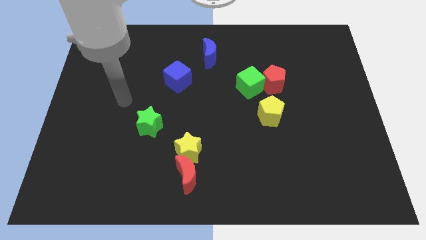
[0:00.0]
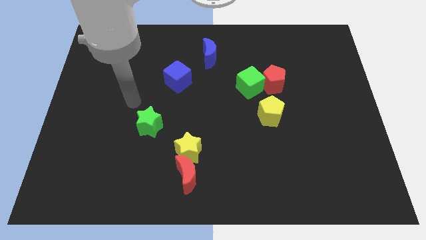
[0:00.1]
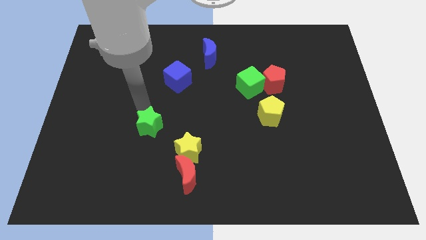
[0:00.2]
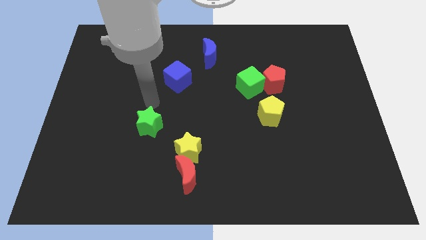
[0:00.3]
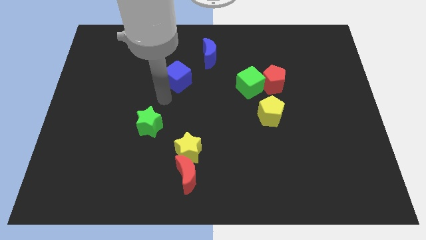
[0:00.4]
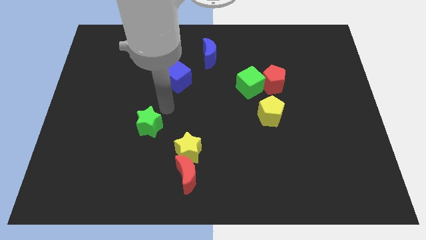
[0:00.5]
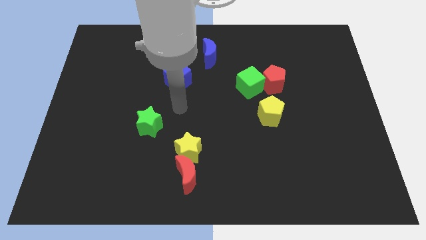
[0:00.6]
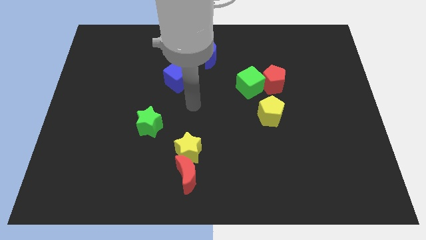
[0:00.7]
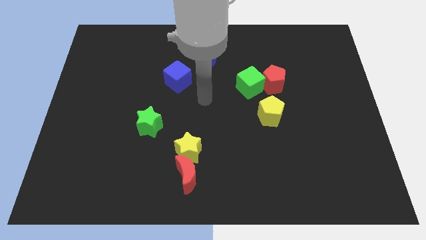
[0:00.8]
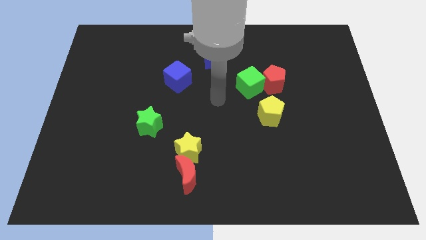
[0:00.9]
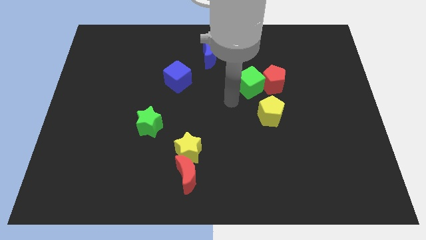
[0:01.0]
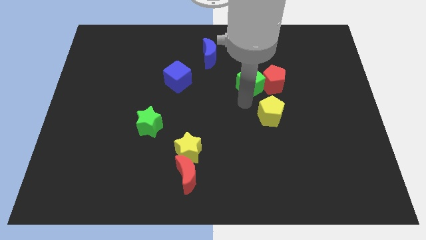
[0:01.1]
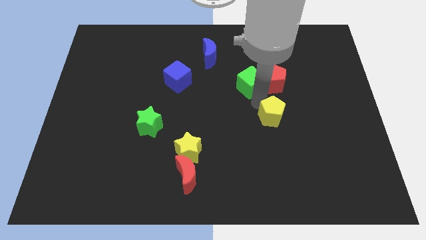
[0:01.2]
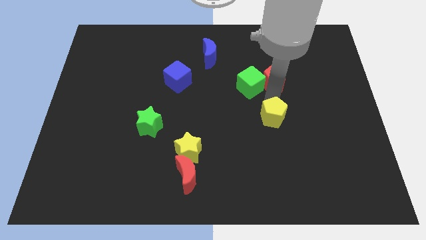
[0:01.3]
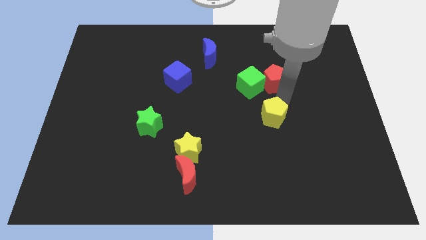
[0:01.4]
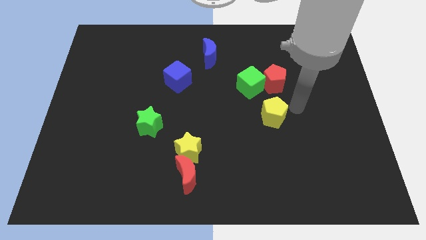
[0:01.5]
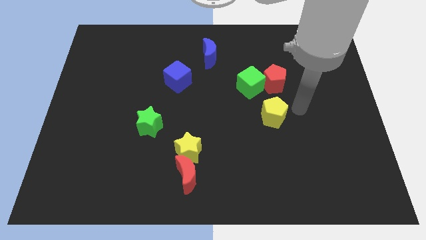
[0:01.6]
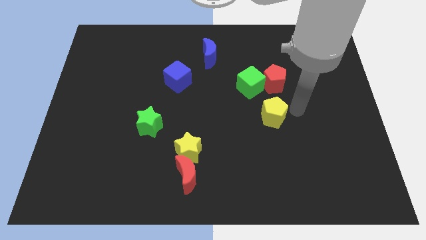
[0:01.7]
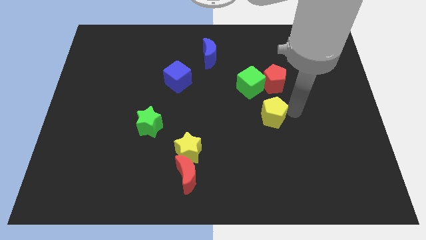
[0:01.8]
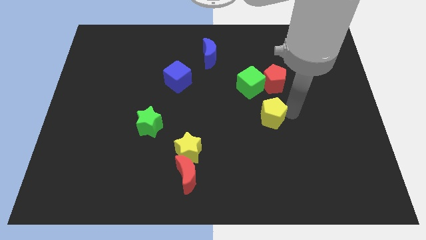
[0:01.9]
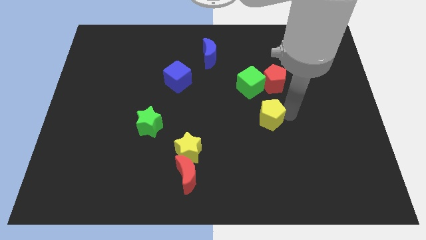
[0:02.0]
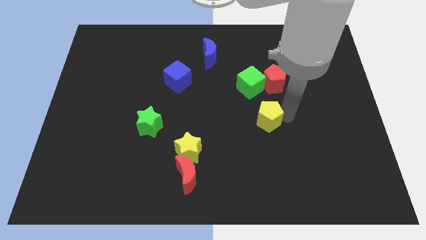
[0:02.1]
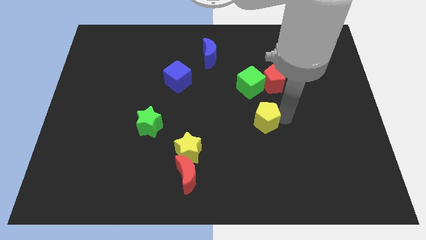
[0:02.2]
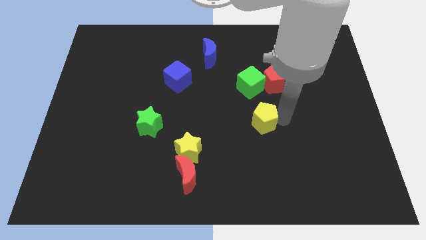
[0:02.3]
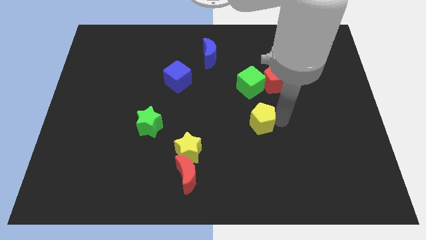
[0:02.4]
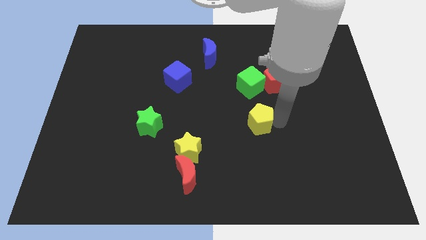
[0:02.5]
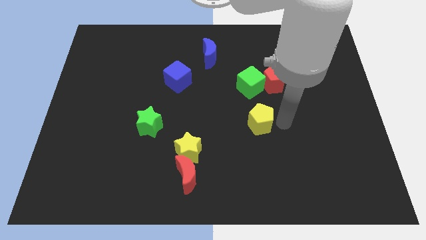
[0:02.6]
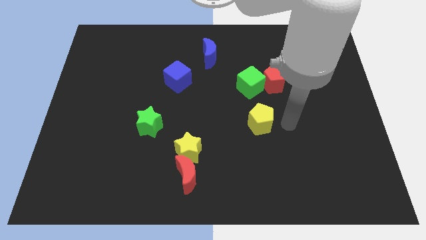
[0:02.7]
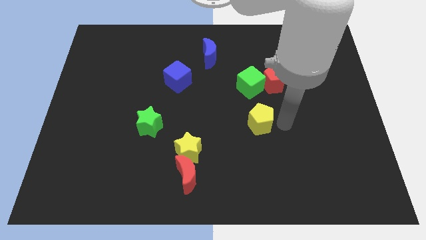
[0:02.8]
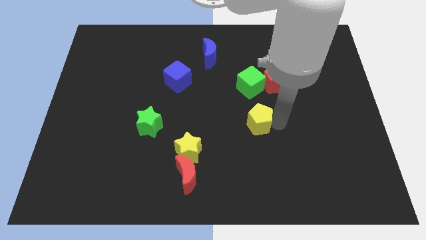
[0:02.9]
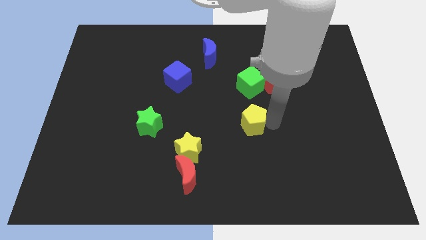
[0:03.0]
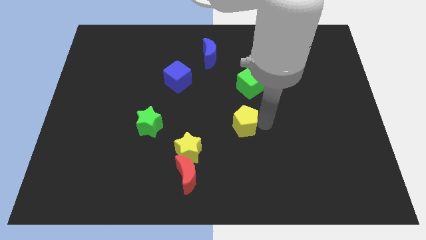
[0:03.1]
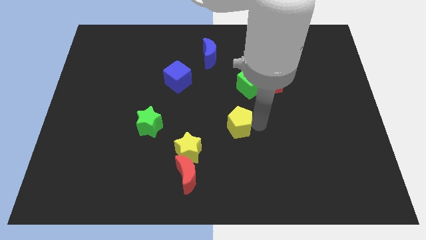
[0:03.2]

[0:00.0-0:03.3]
slightly push the yellow pentagon to the left

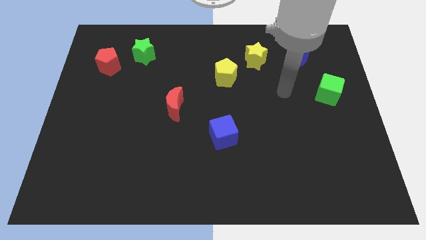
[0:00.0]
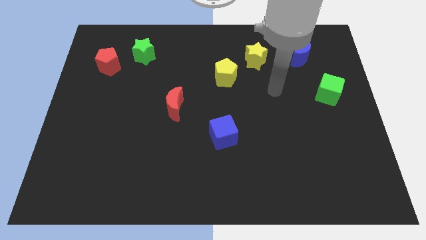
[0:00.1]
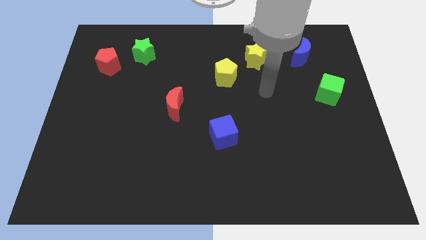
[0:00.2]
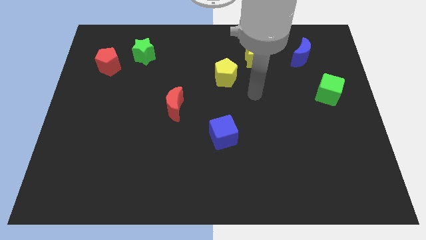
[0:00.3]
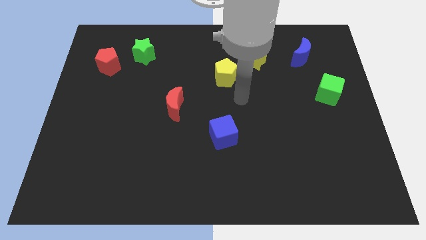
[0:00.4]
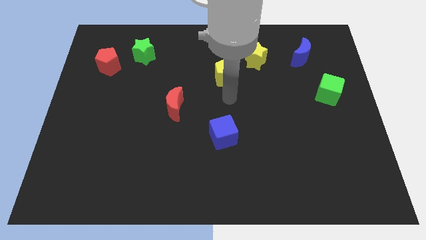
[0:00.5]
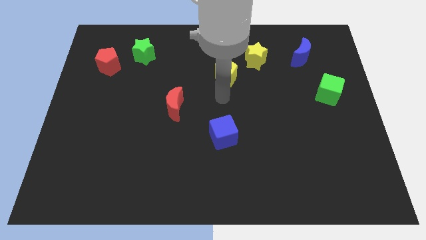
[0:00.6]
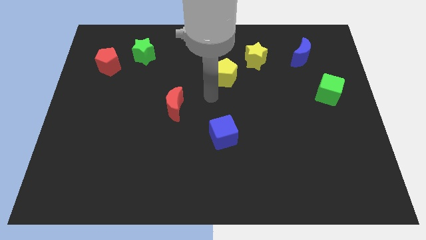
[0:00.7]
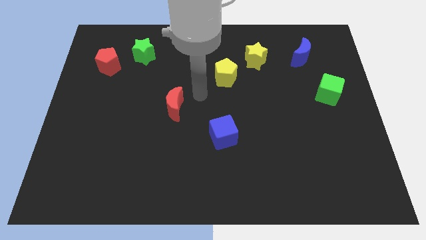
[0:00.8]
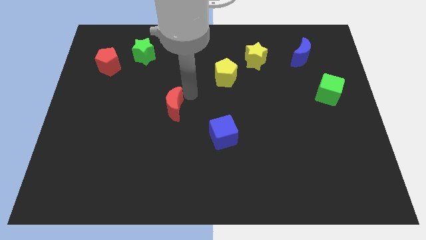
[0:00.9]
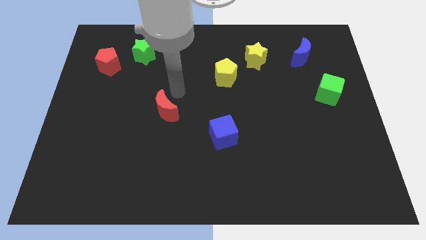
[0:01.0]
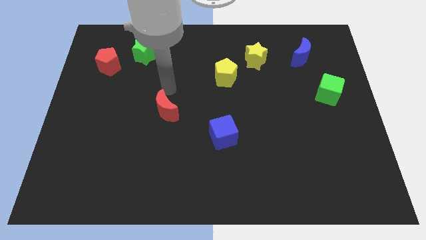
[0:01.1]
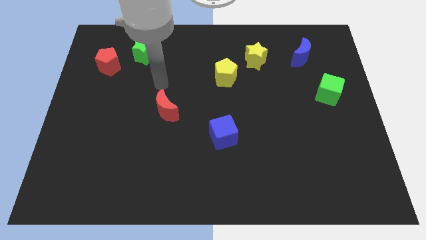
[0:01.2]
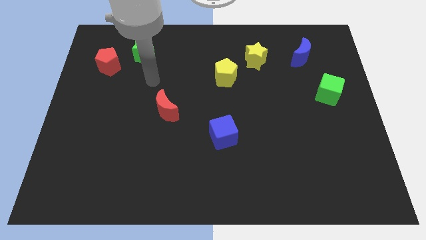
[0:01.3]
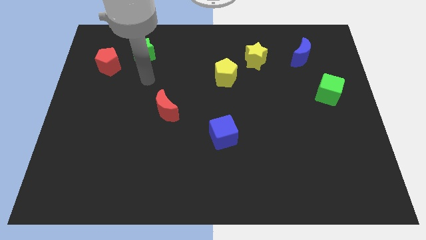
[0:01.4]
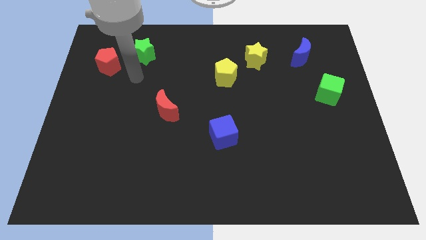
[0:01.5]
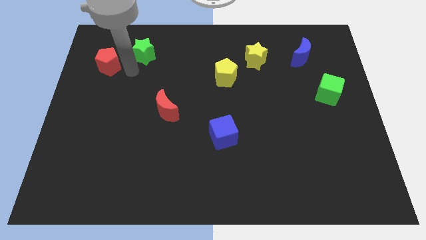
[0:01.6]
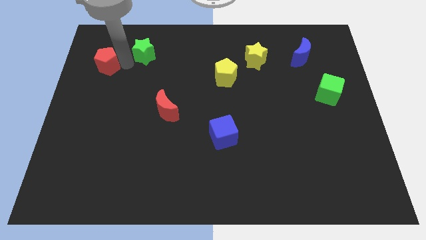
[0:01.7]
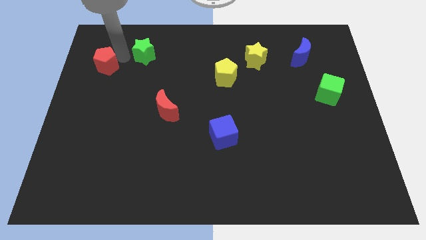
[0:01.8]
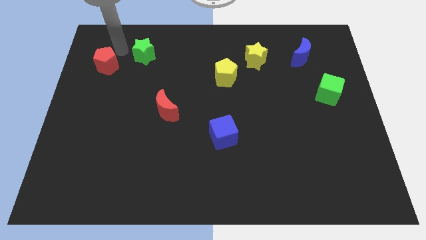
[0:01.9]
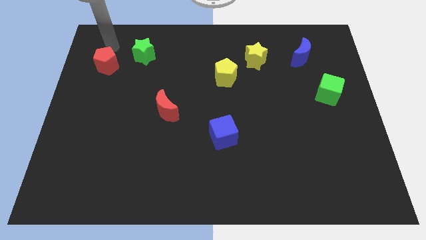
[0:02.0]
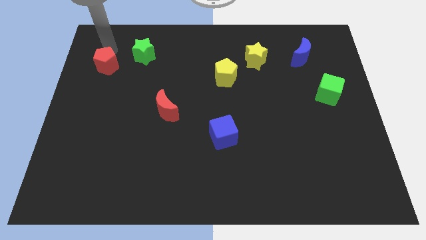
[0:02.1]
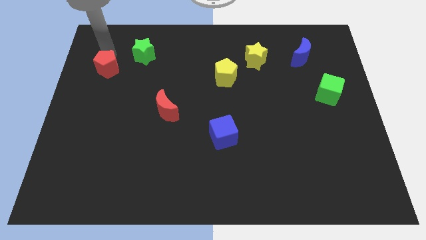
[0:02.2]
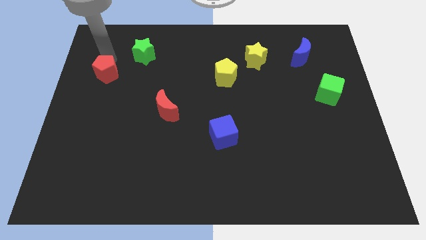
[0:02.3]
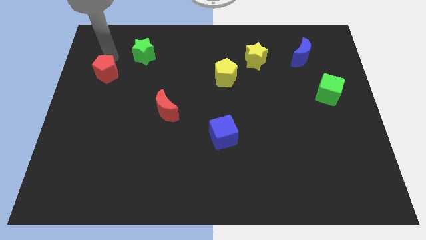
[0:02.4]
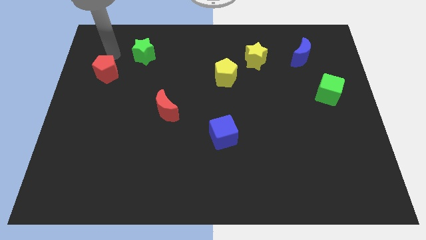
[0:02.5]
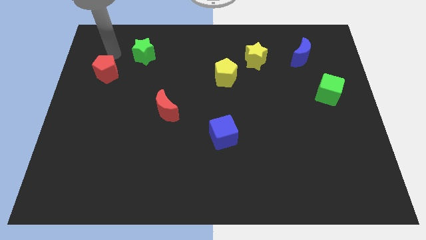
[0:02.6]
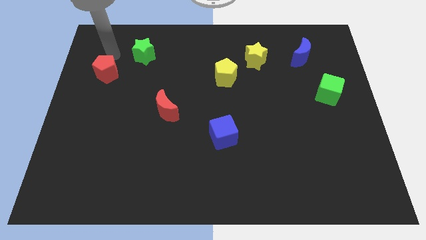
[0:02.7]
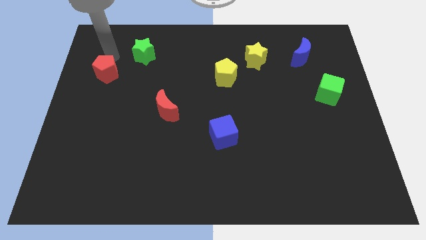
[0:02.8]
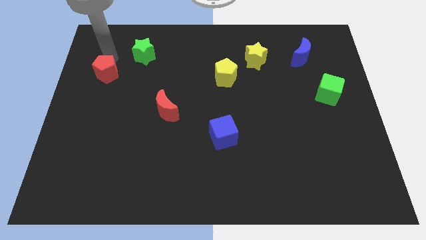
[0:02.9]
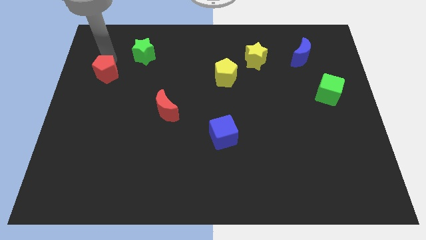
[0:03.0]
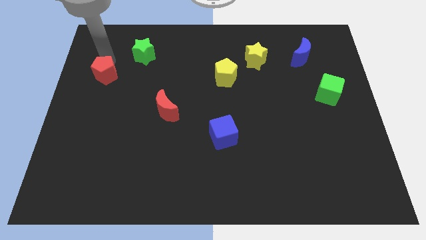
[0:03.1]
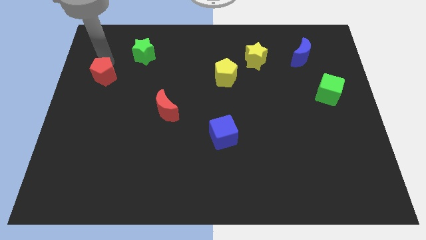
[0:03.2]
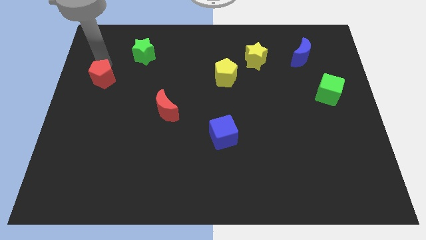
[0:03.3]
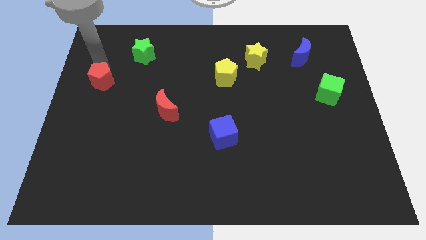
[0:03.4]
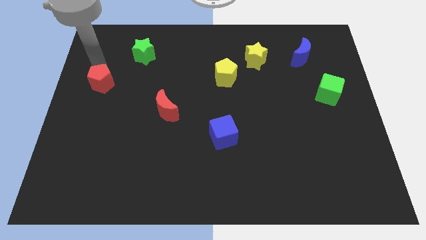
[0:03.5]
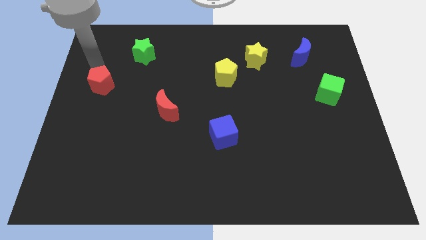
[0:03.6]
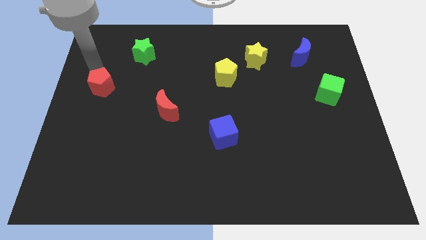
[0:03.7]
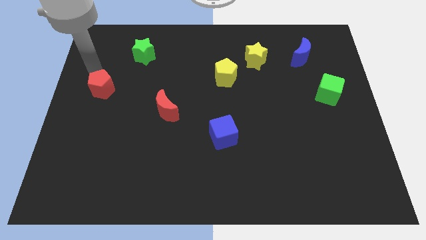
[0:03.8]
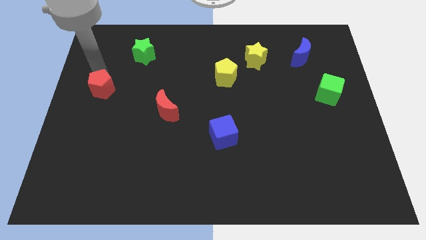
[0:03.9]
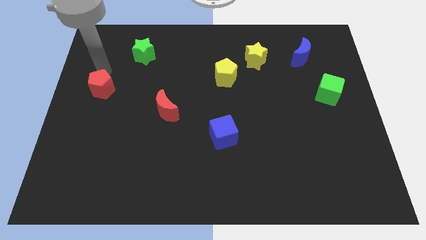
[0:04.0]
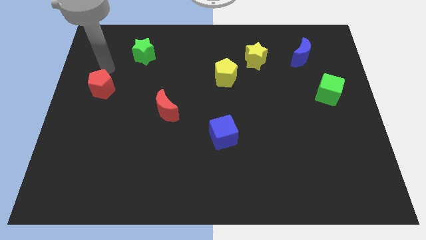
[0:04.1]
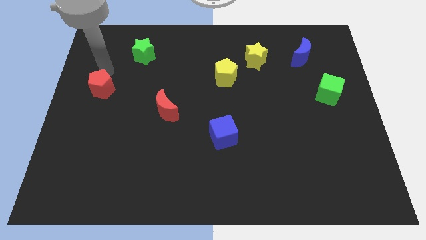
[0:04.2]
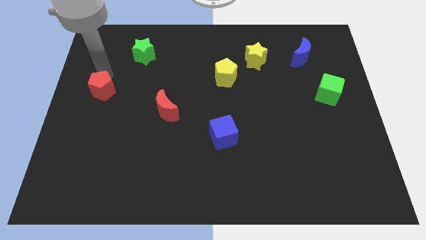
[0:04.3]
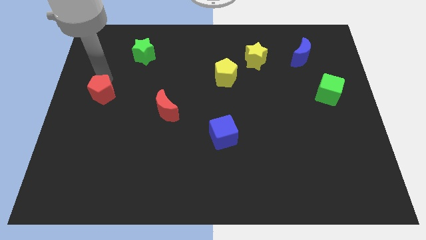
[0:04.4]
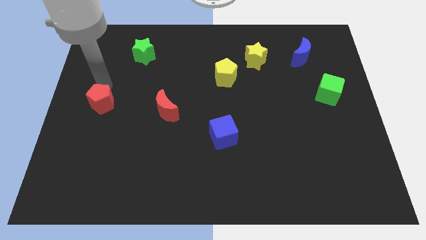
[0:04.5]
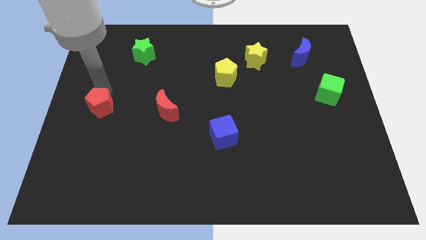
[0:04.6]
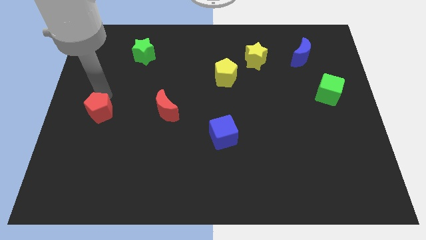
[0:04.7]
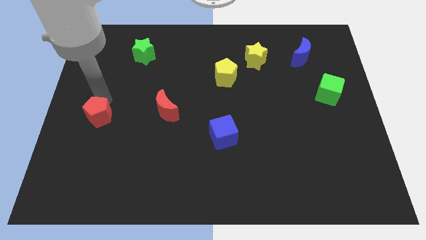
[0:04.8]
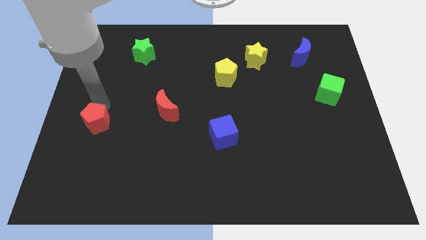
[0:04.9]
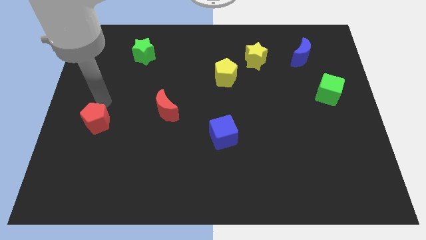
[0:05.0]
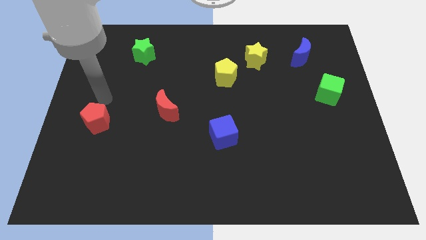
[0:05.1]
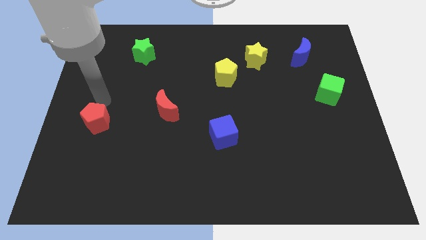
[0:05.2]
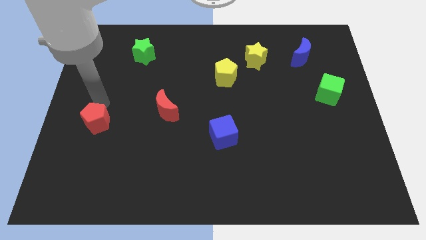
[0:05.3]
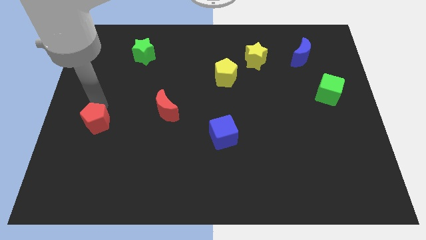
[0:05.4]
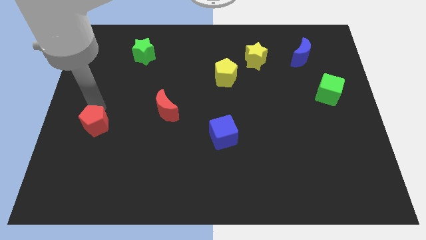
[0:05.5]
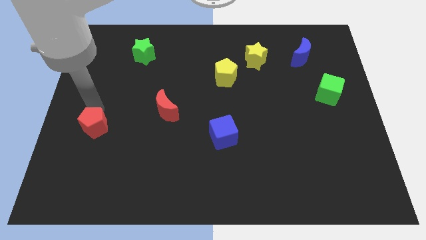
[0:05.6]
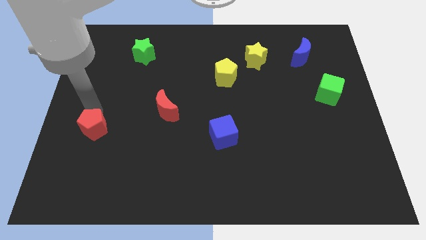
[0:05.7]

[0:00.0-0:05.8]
slide the red pentagon down
